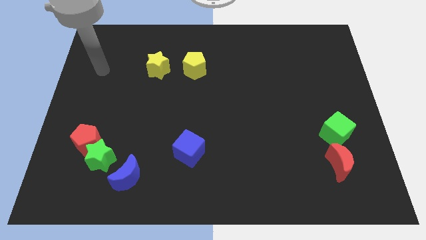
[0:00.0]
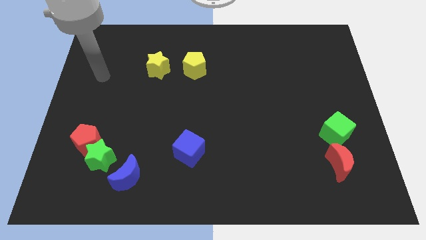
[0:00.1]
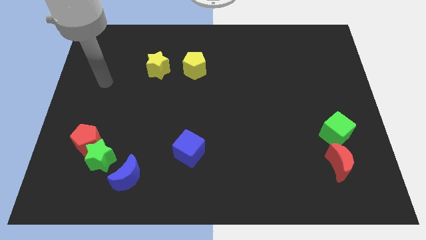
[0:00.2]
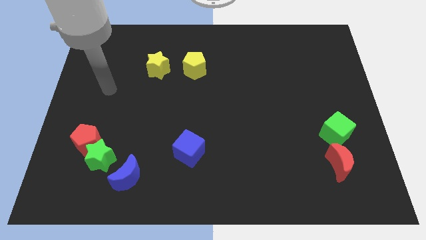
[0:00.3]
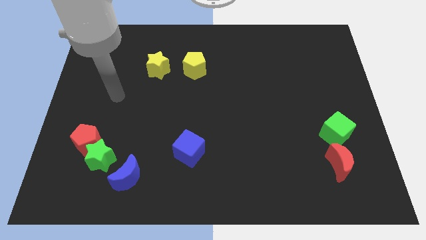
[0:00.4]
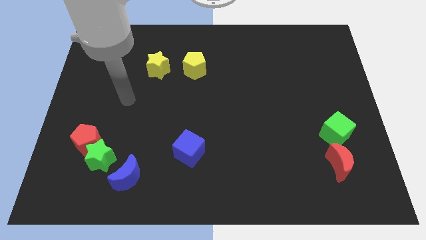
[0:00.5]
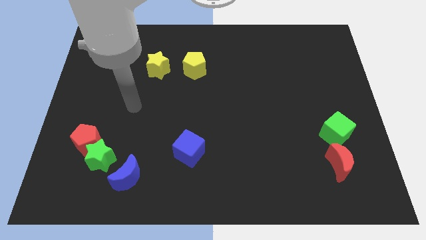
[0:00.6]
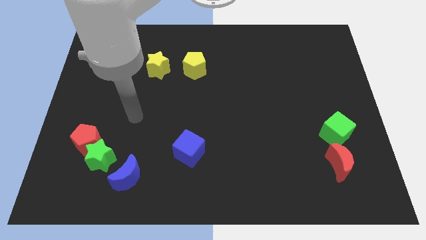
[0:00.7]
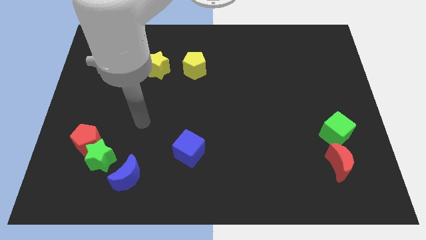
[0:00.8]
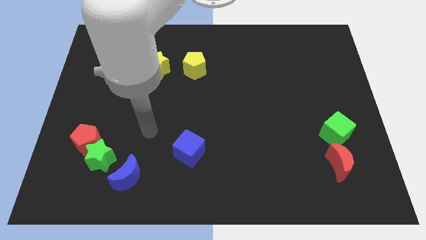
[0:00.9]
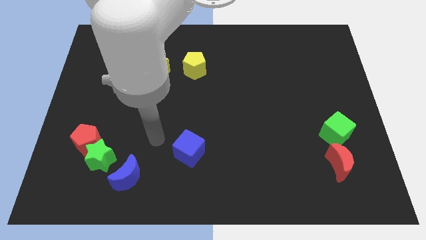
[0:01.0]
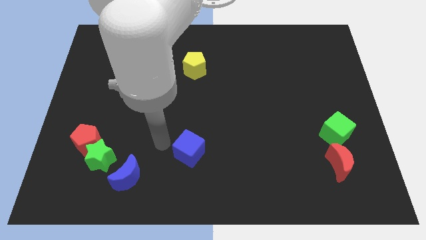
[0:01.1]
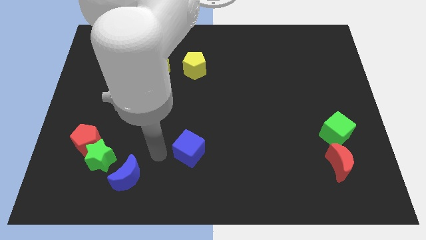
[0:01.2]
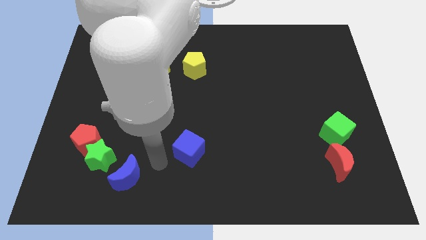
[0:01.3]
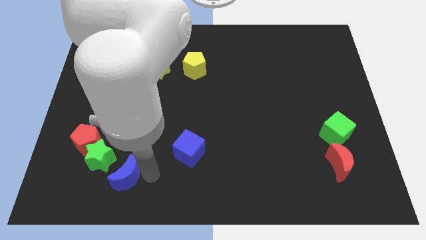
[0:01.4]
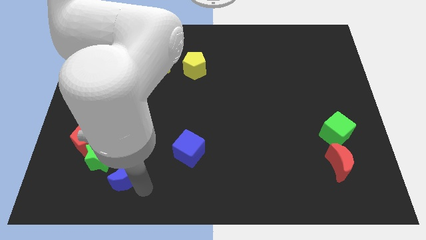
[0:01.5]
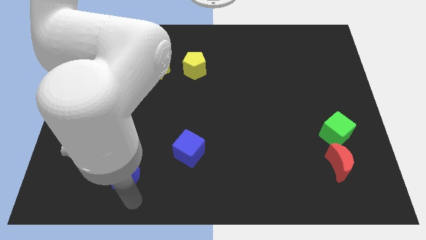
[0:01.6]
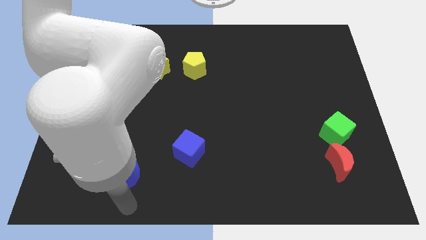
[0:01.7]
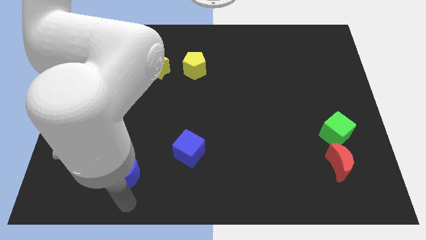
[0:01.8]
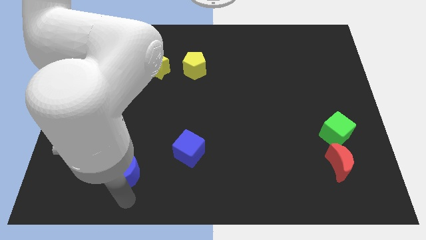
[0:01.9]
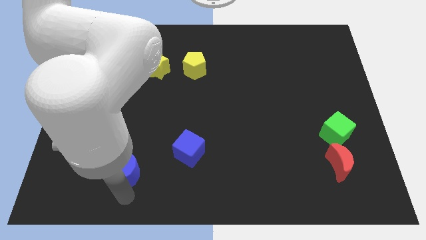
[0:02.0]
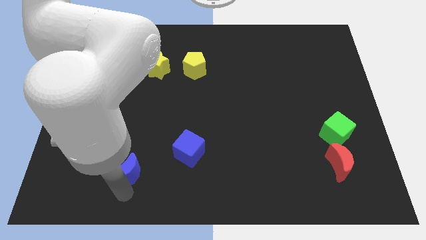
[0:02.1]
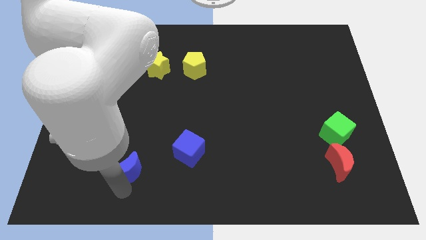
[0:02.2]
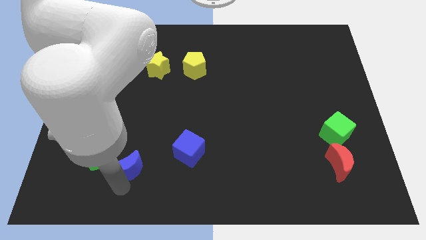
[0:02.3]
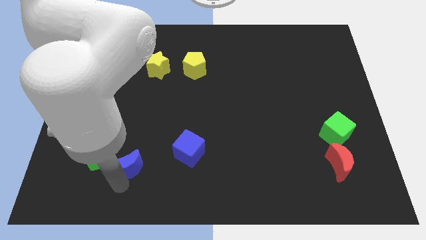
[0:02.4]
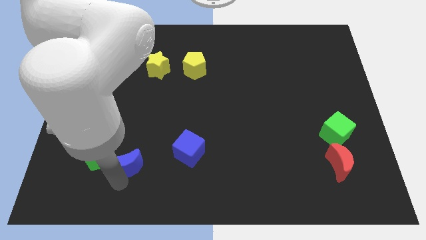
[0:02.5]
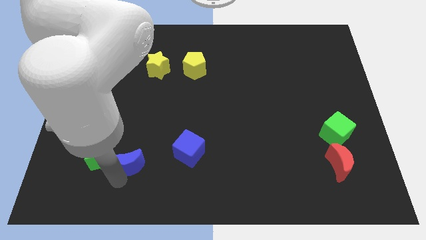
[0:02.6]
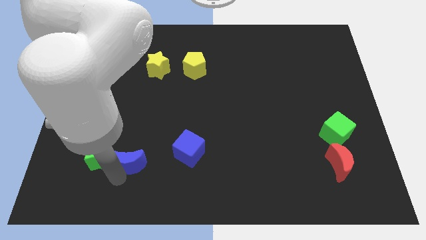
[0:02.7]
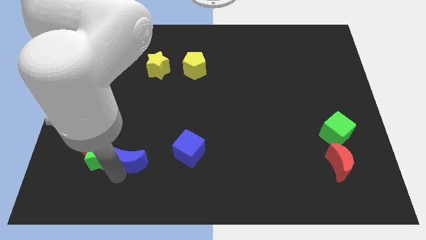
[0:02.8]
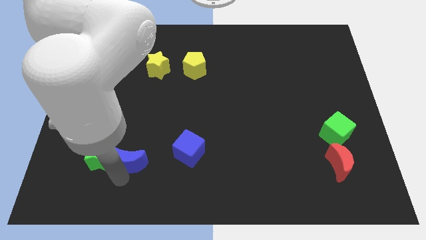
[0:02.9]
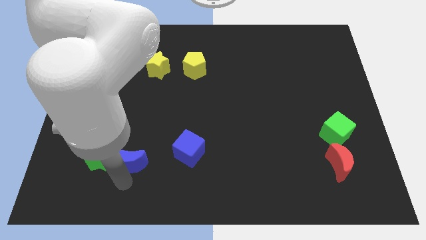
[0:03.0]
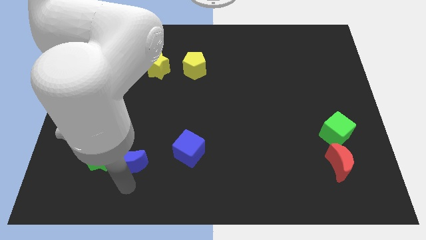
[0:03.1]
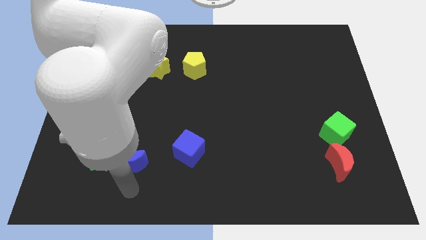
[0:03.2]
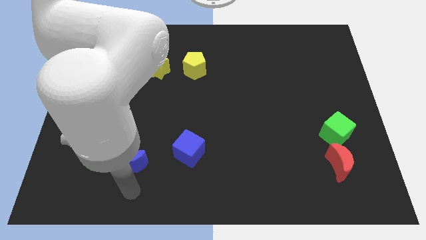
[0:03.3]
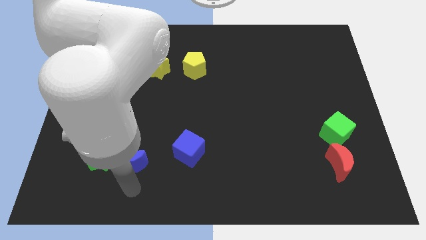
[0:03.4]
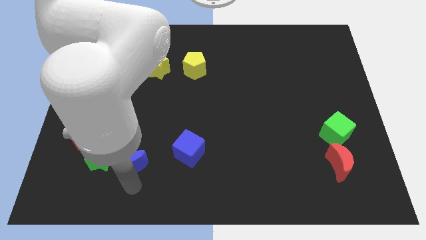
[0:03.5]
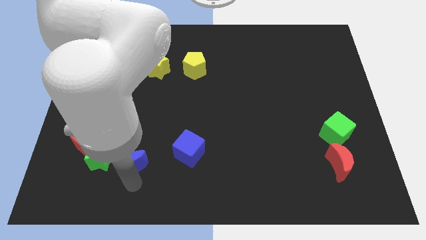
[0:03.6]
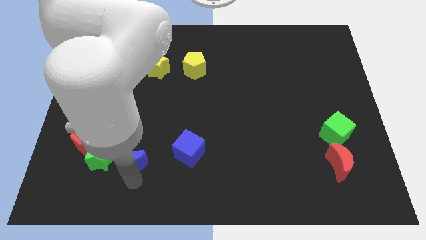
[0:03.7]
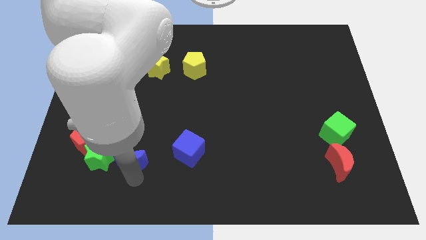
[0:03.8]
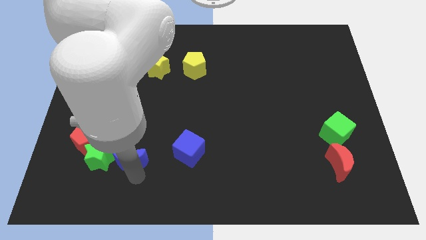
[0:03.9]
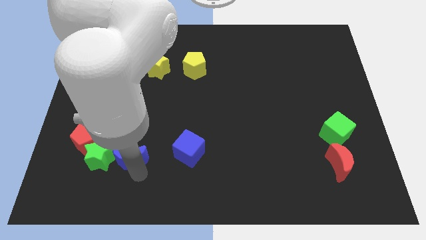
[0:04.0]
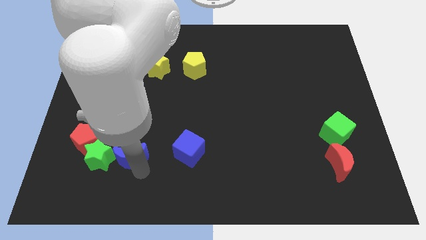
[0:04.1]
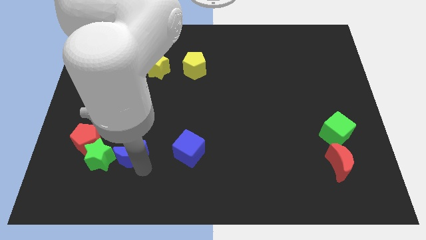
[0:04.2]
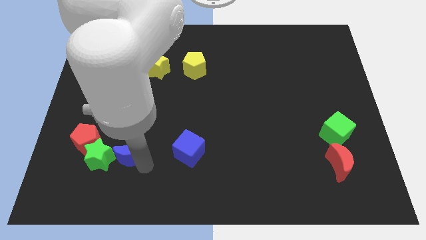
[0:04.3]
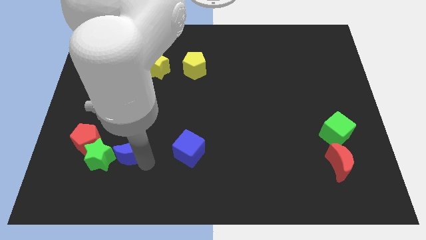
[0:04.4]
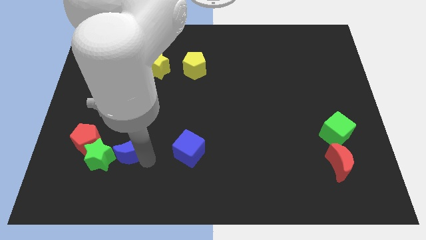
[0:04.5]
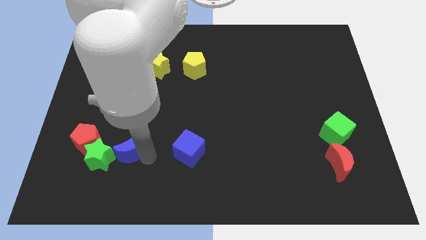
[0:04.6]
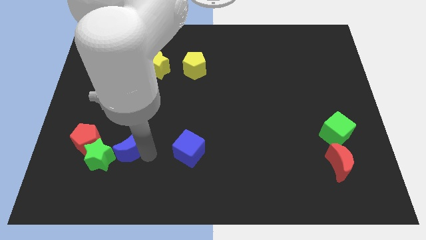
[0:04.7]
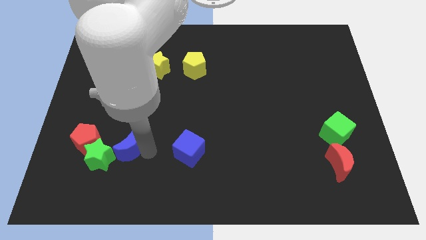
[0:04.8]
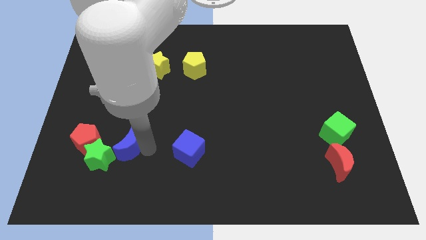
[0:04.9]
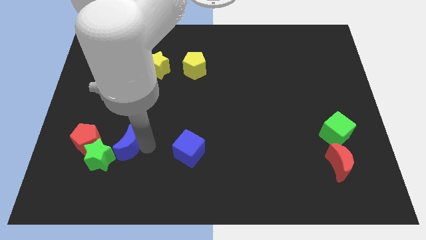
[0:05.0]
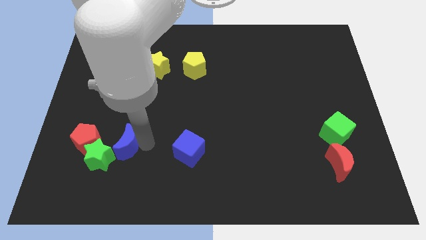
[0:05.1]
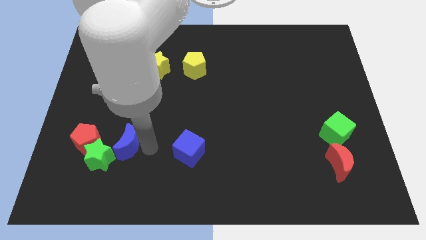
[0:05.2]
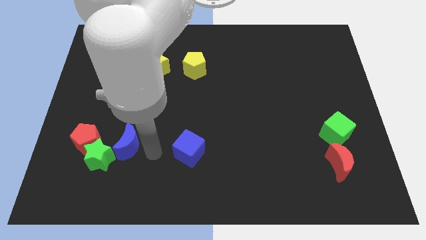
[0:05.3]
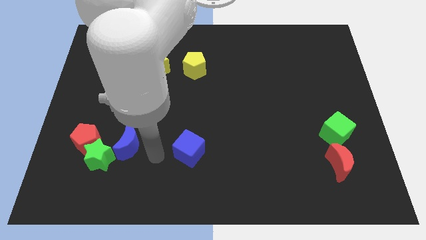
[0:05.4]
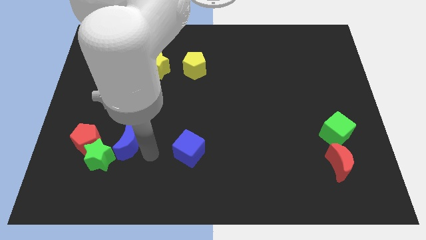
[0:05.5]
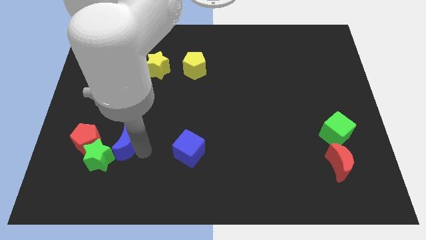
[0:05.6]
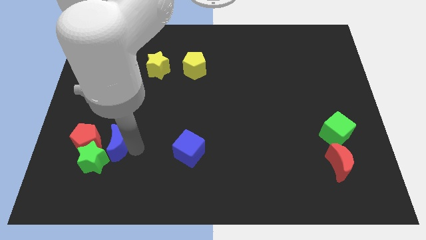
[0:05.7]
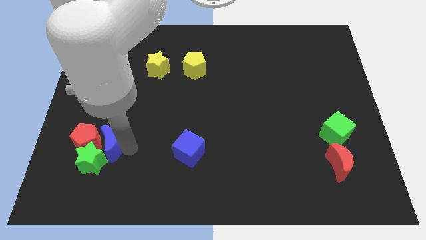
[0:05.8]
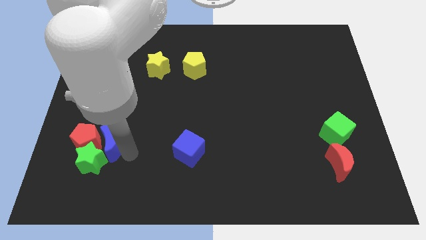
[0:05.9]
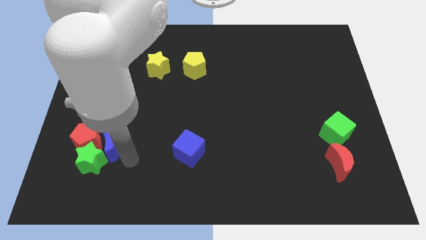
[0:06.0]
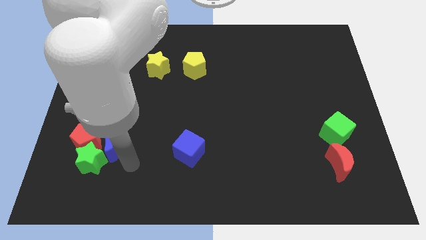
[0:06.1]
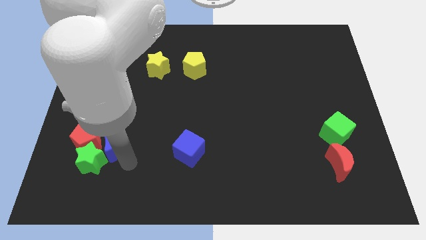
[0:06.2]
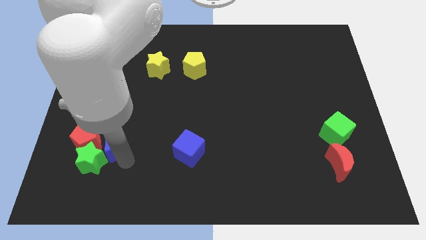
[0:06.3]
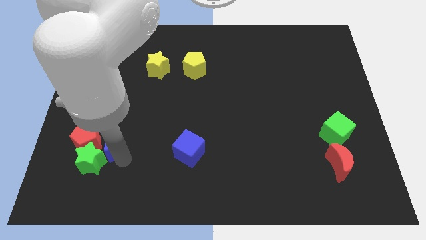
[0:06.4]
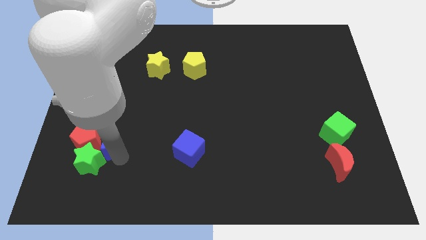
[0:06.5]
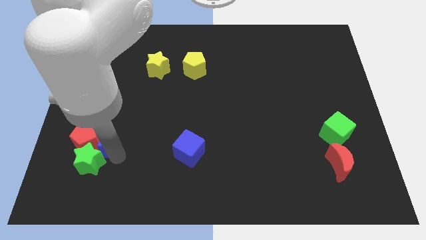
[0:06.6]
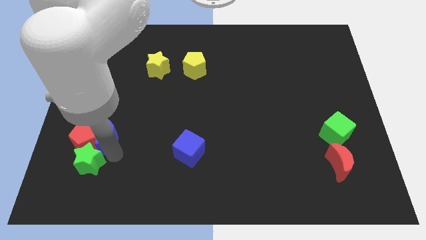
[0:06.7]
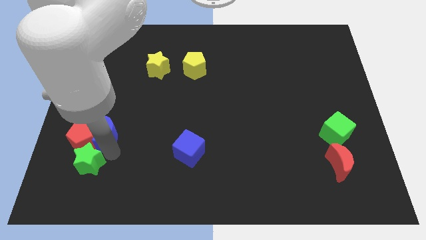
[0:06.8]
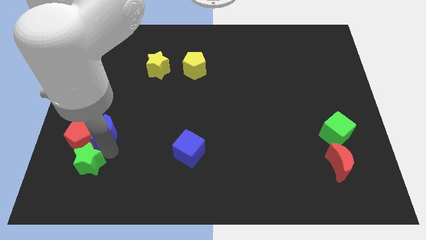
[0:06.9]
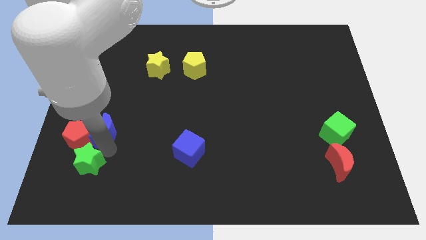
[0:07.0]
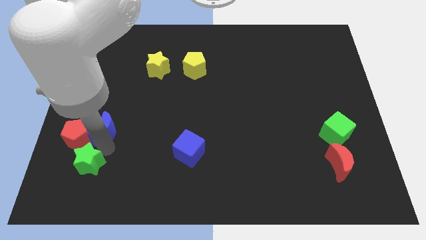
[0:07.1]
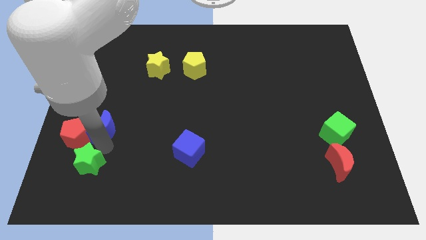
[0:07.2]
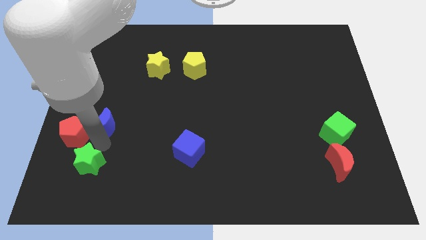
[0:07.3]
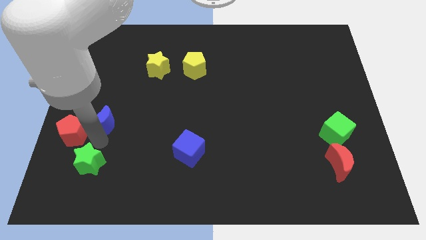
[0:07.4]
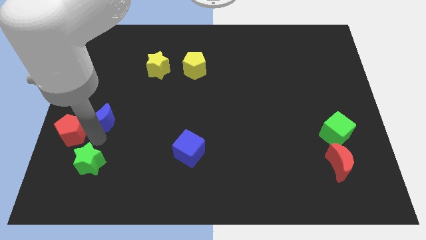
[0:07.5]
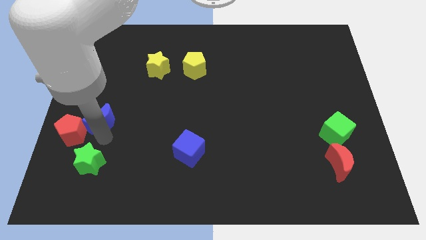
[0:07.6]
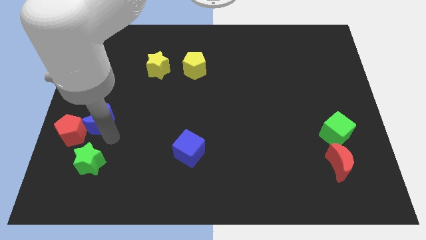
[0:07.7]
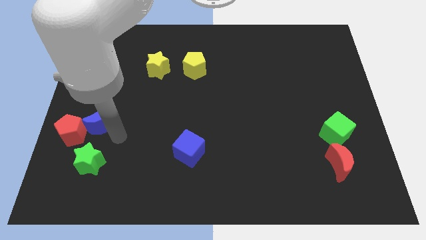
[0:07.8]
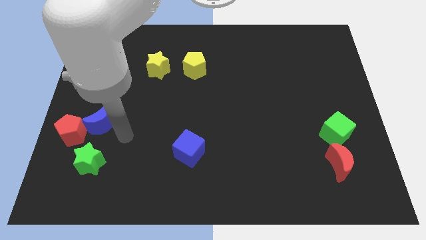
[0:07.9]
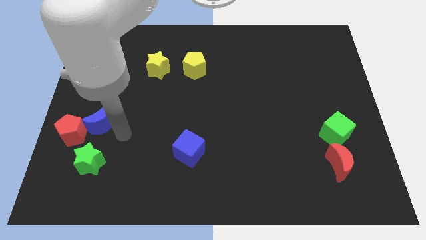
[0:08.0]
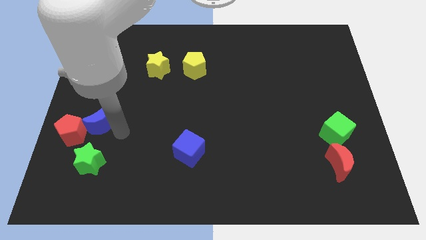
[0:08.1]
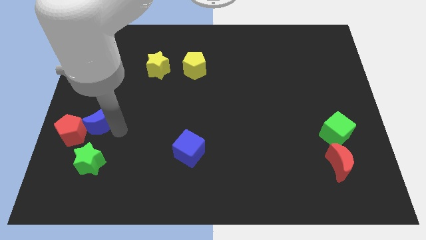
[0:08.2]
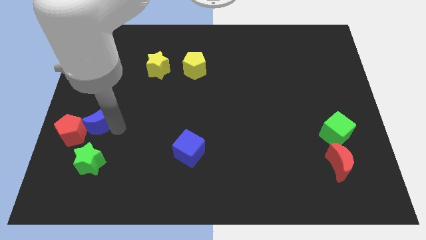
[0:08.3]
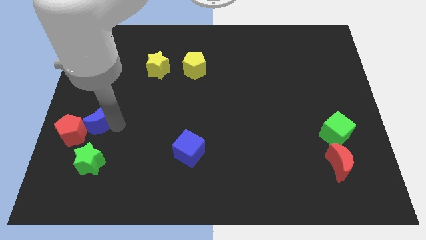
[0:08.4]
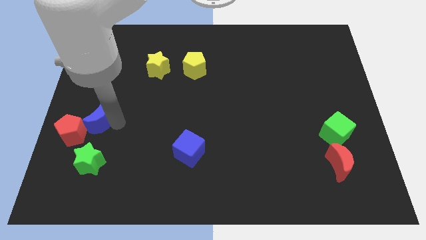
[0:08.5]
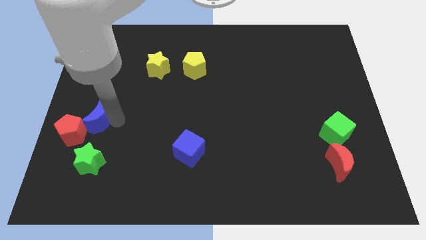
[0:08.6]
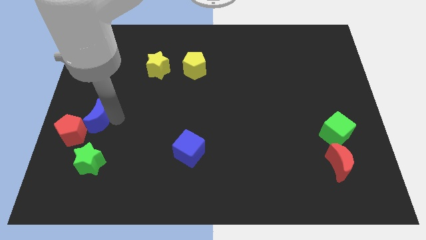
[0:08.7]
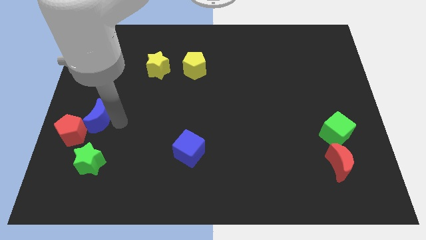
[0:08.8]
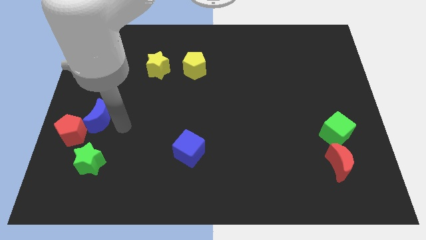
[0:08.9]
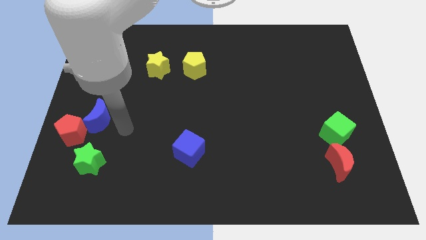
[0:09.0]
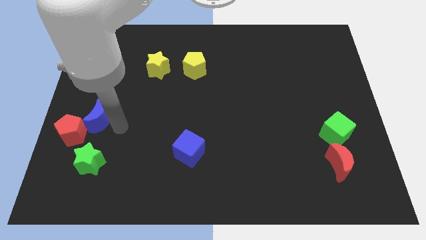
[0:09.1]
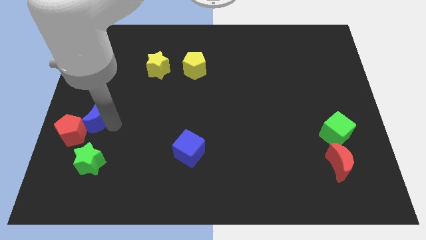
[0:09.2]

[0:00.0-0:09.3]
push the blue moon to the left side
